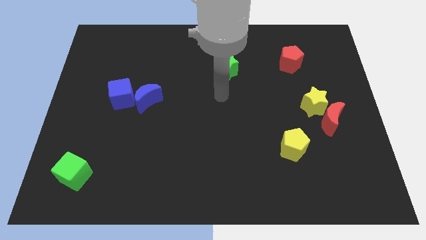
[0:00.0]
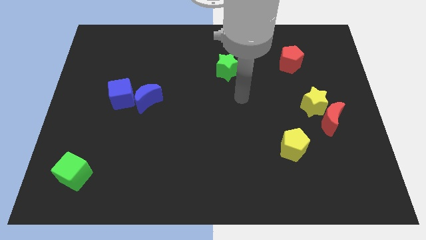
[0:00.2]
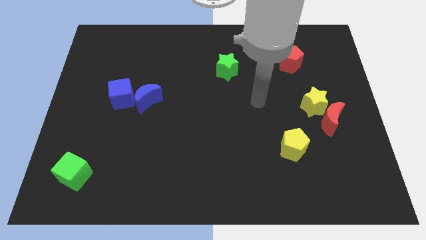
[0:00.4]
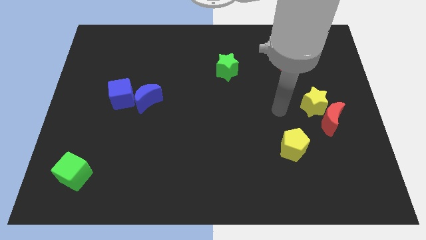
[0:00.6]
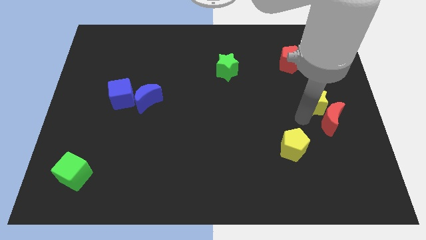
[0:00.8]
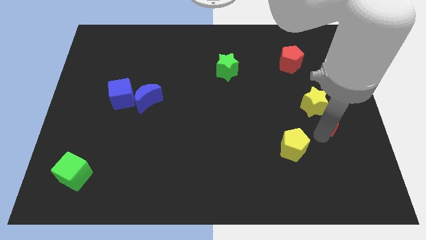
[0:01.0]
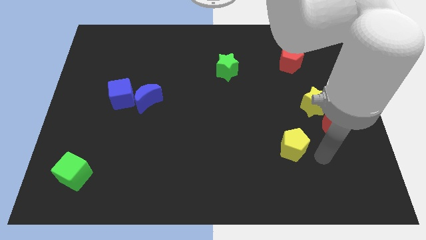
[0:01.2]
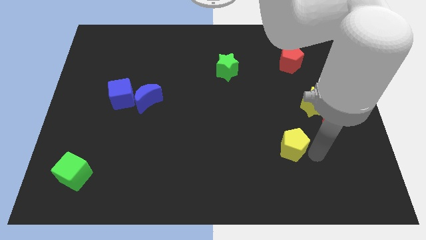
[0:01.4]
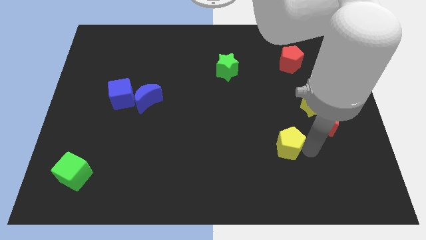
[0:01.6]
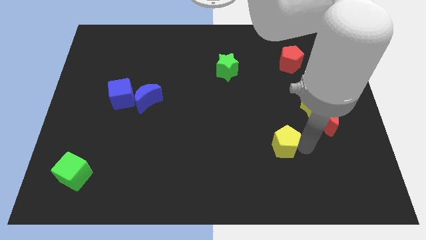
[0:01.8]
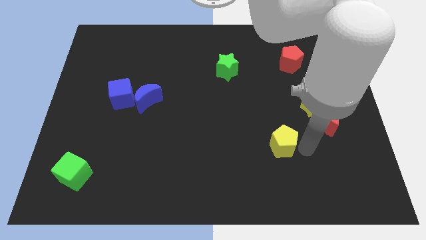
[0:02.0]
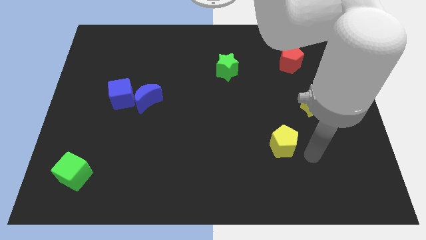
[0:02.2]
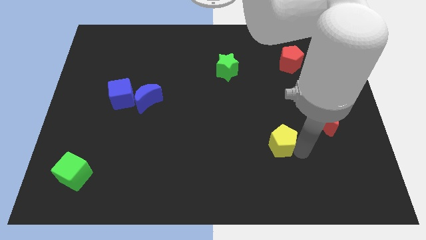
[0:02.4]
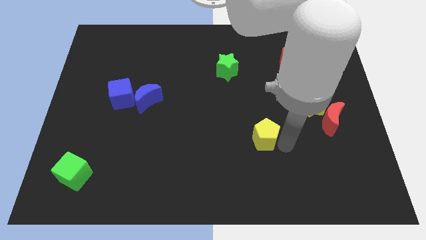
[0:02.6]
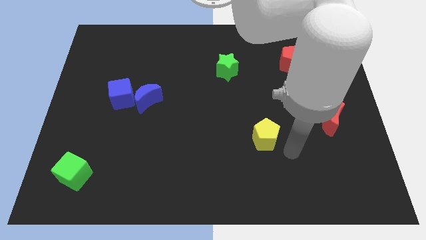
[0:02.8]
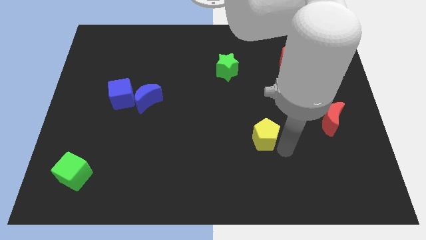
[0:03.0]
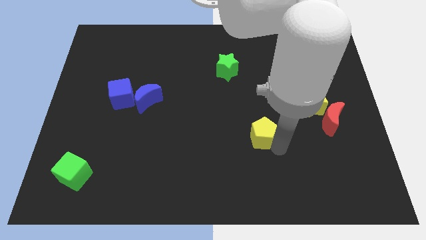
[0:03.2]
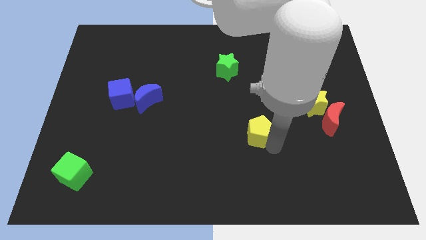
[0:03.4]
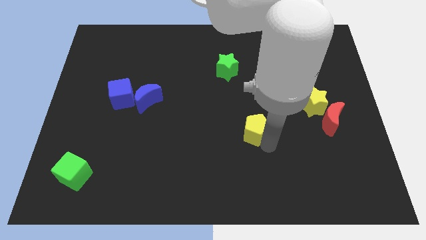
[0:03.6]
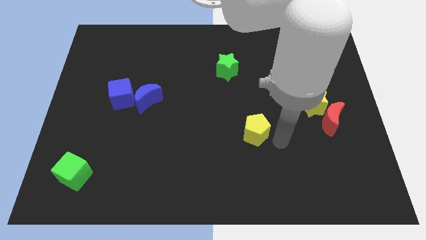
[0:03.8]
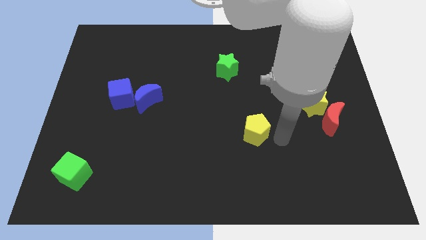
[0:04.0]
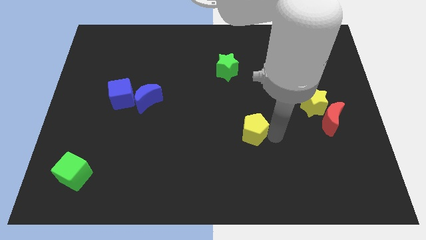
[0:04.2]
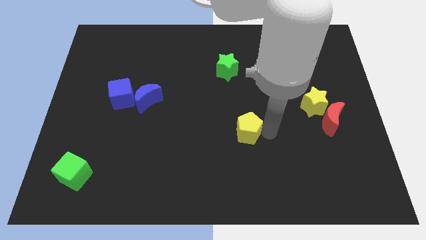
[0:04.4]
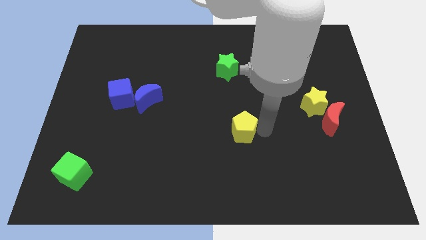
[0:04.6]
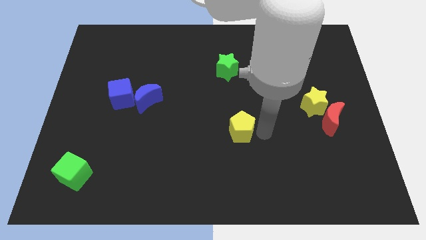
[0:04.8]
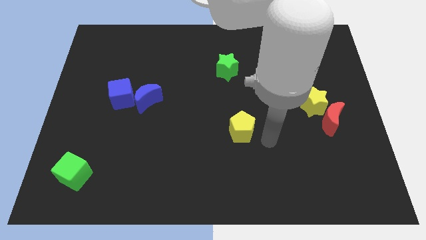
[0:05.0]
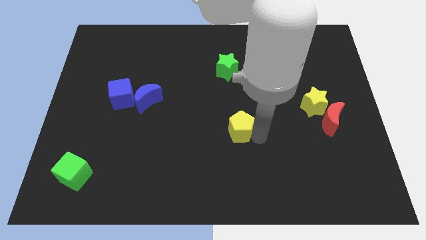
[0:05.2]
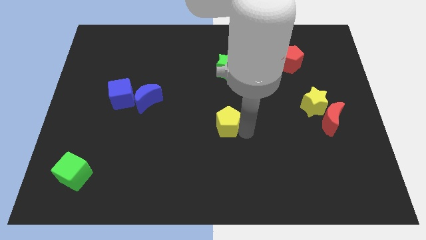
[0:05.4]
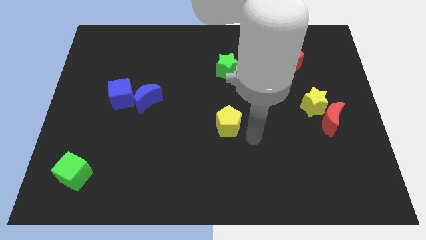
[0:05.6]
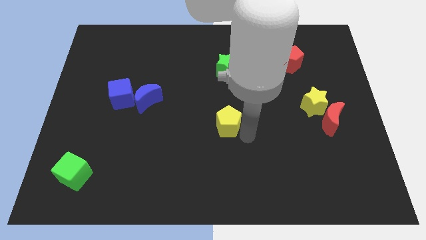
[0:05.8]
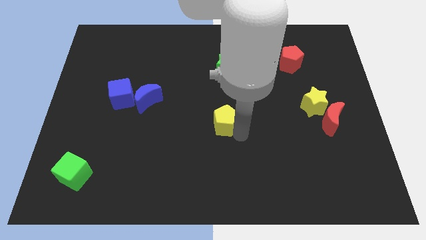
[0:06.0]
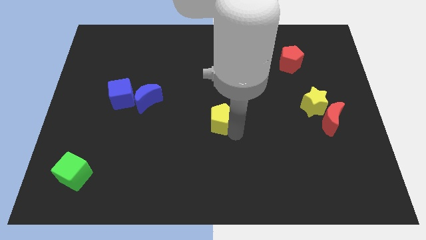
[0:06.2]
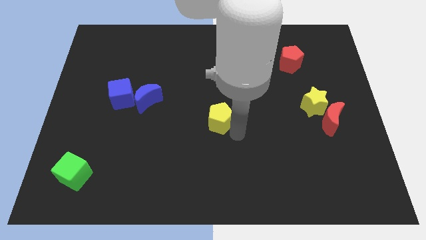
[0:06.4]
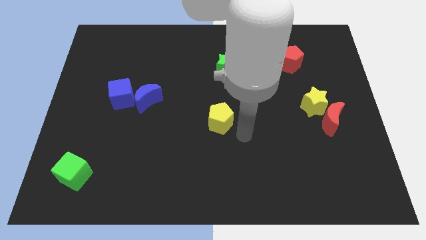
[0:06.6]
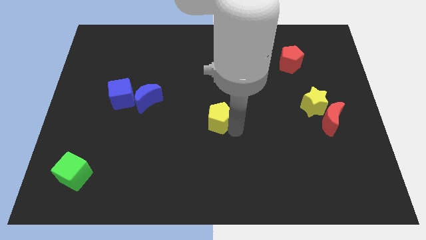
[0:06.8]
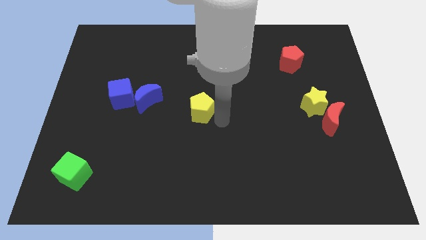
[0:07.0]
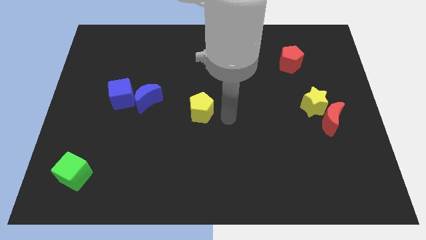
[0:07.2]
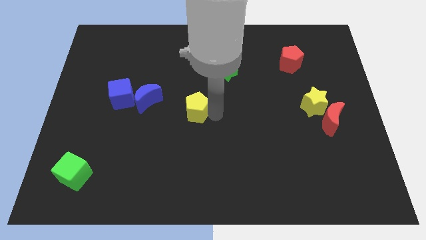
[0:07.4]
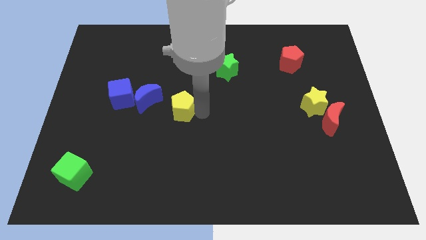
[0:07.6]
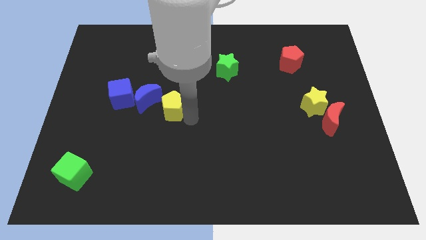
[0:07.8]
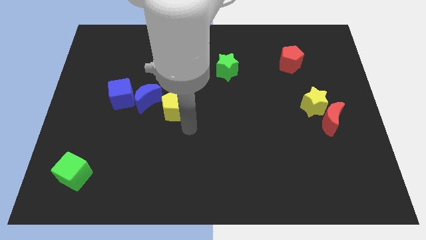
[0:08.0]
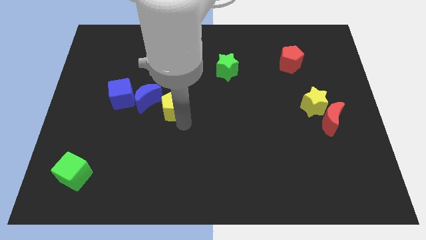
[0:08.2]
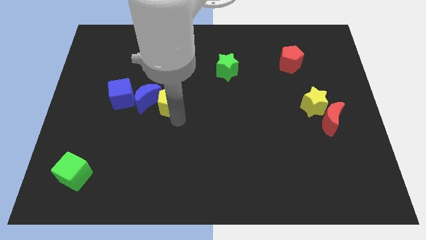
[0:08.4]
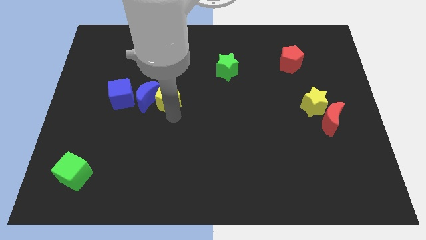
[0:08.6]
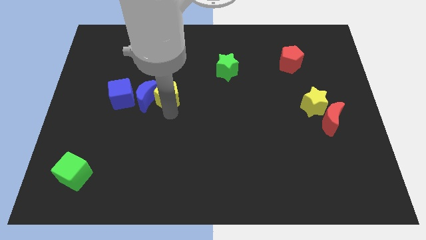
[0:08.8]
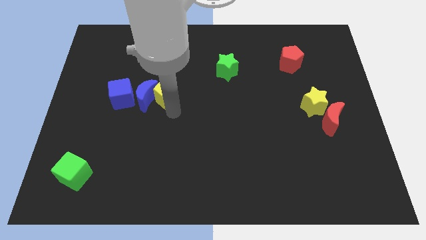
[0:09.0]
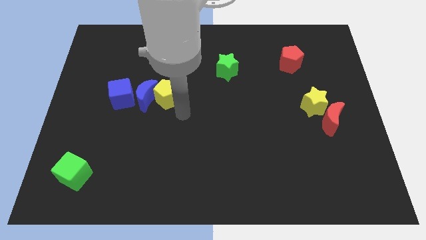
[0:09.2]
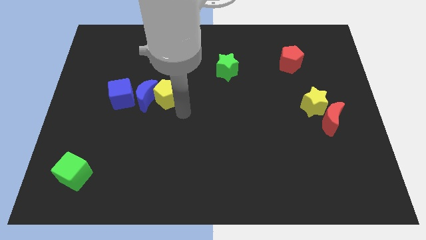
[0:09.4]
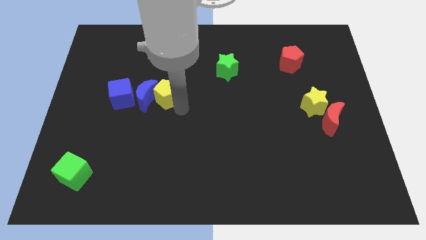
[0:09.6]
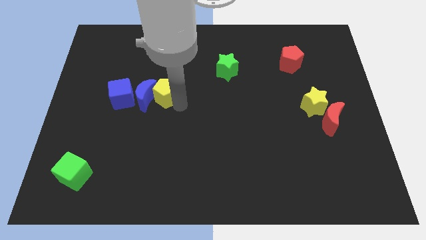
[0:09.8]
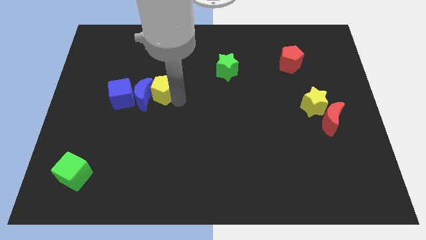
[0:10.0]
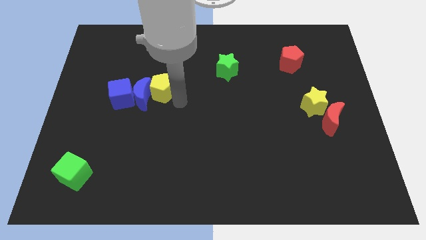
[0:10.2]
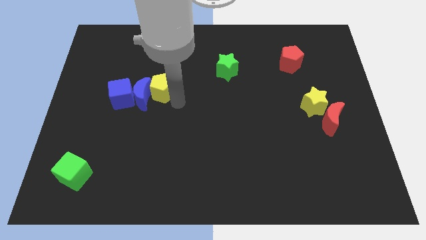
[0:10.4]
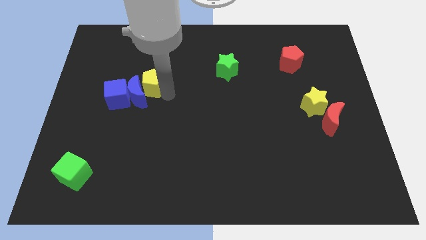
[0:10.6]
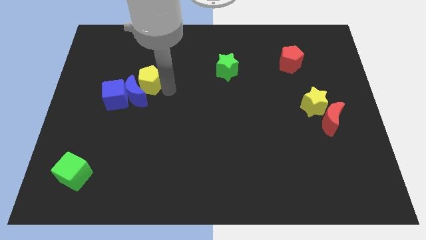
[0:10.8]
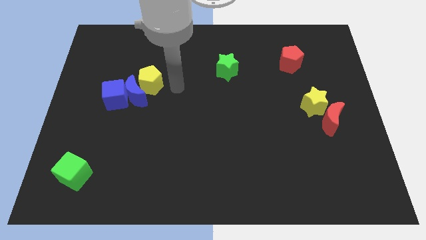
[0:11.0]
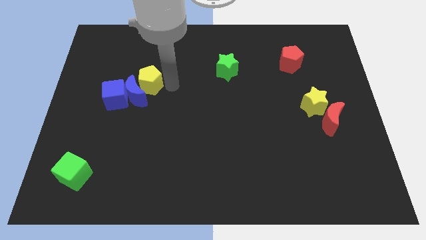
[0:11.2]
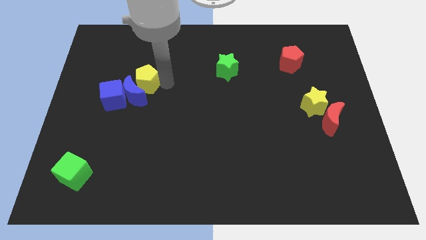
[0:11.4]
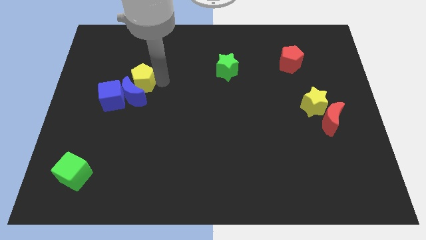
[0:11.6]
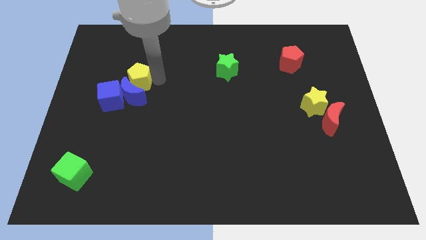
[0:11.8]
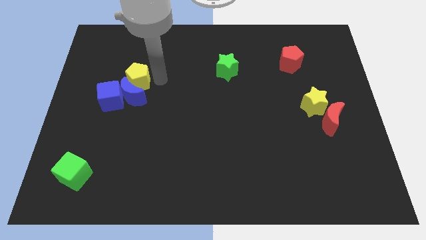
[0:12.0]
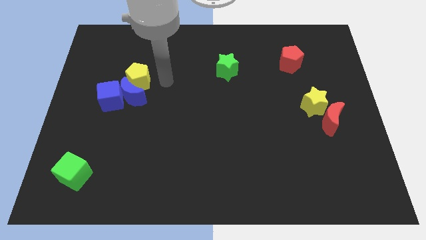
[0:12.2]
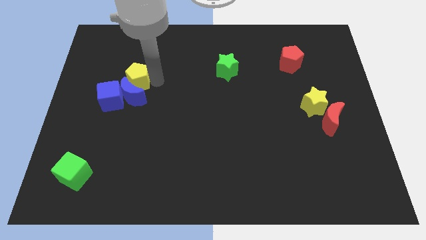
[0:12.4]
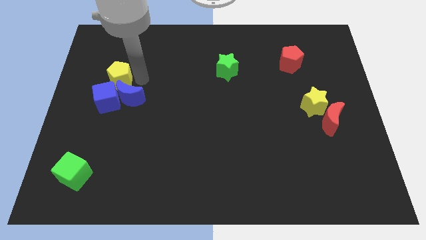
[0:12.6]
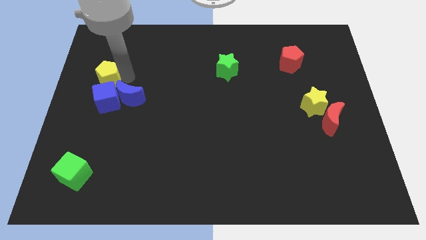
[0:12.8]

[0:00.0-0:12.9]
put the yellow pentagon to the top left of the blue cube

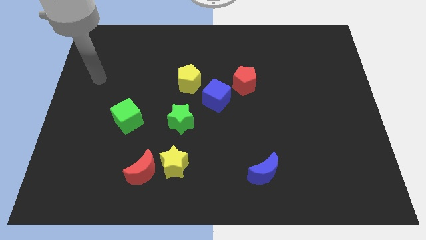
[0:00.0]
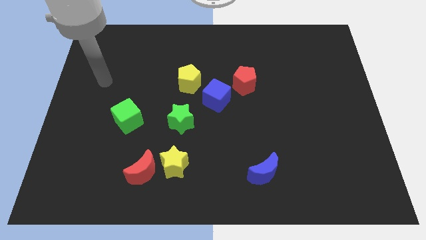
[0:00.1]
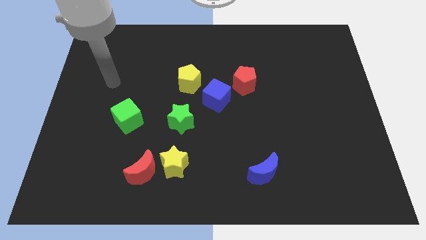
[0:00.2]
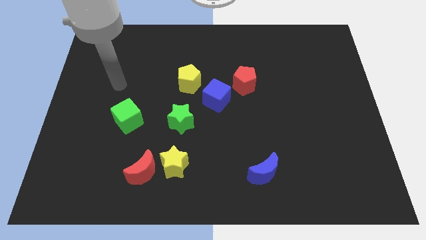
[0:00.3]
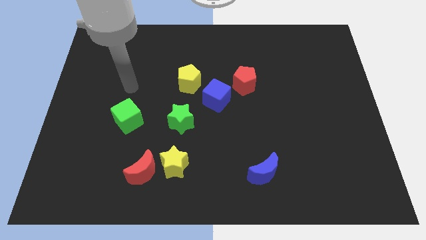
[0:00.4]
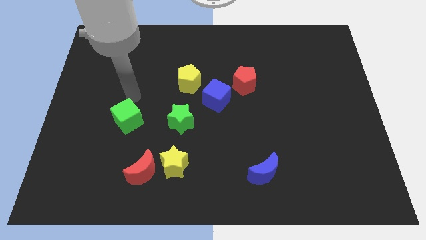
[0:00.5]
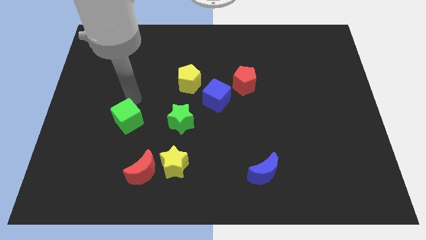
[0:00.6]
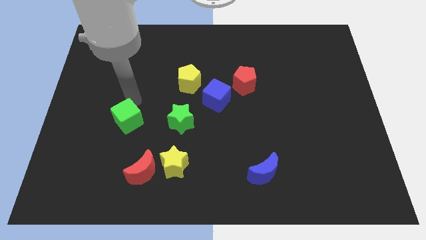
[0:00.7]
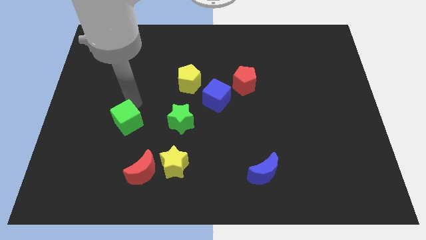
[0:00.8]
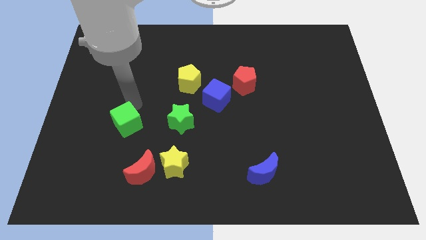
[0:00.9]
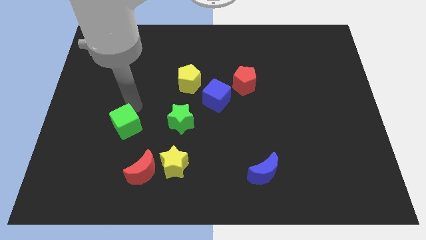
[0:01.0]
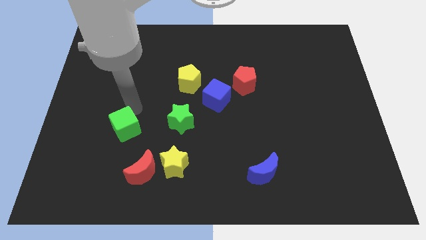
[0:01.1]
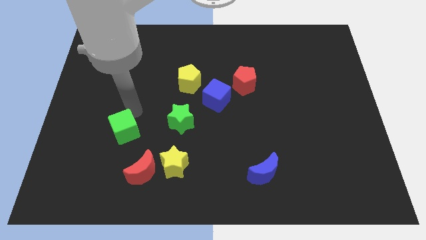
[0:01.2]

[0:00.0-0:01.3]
put the green cube to the top left side of the red moon
